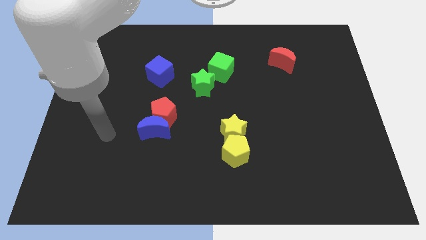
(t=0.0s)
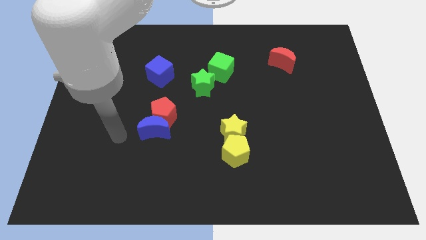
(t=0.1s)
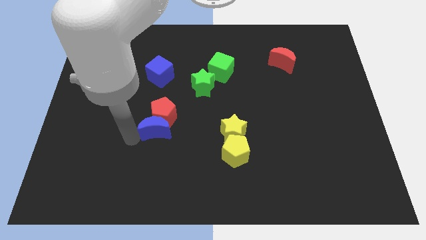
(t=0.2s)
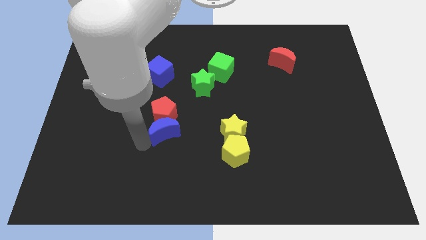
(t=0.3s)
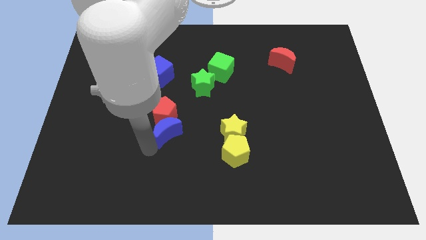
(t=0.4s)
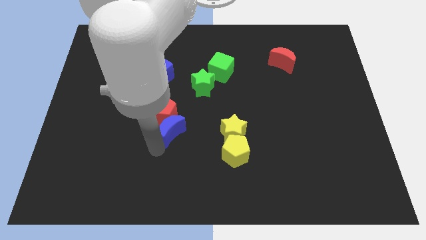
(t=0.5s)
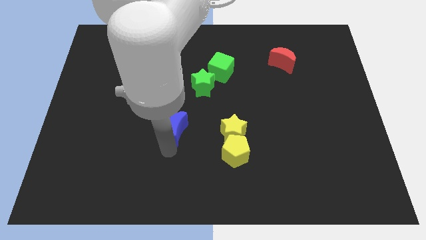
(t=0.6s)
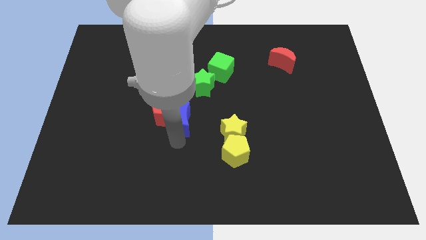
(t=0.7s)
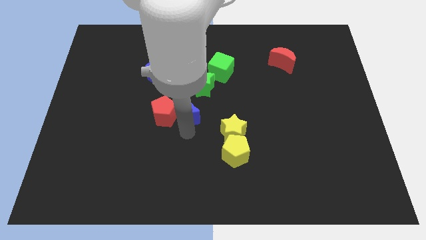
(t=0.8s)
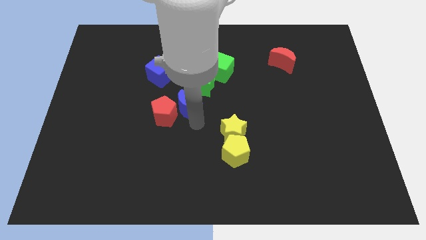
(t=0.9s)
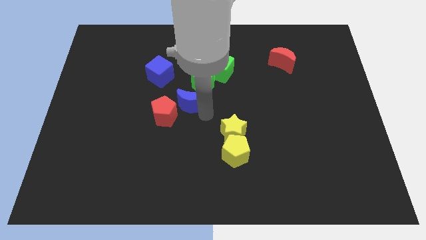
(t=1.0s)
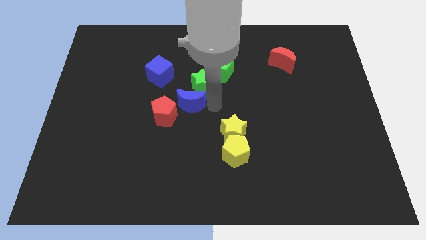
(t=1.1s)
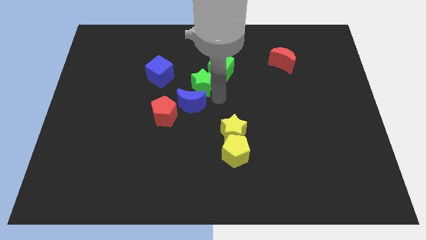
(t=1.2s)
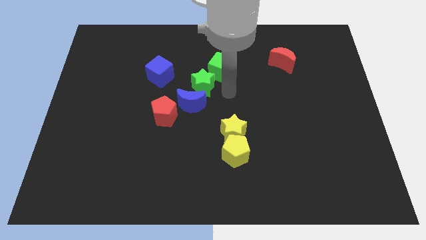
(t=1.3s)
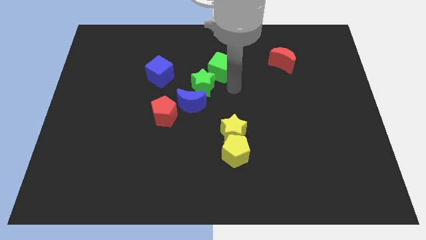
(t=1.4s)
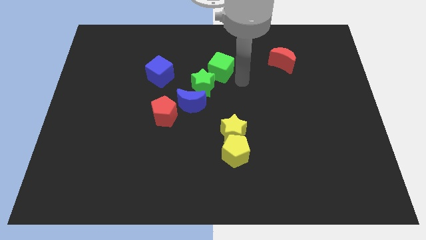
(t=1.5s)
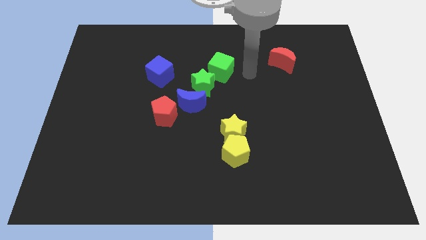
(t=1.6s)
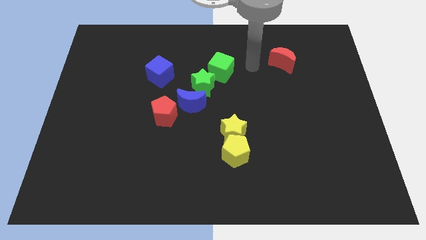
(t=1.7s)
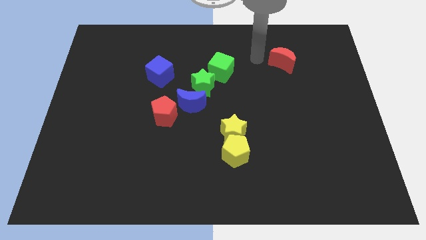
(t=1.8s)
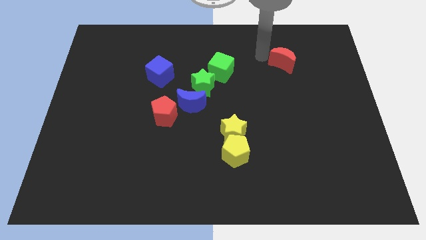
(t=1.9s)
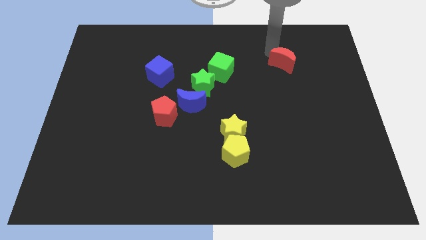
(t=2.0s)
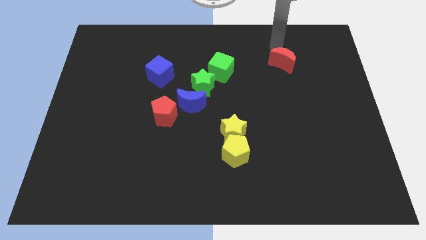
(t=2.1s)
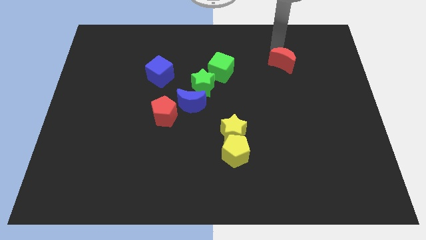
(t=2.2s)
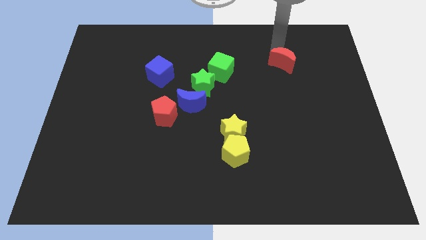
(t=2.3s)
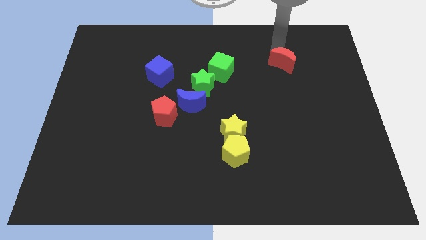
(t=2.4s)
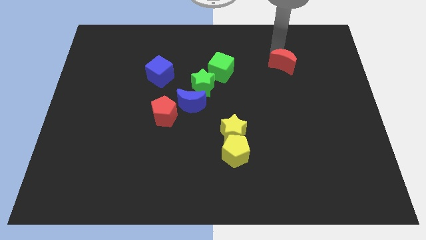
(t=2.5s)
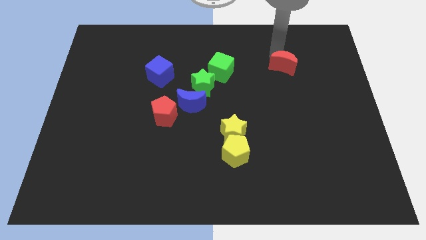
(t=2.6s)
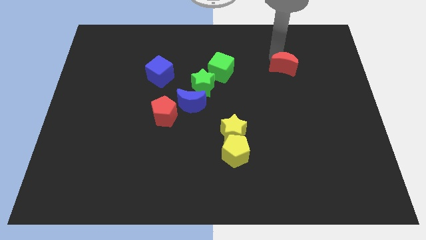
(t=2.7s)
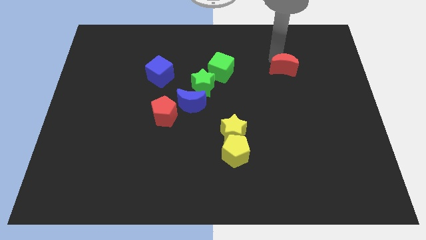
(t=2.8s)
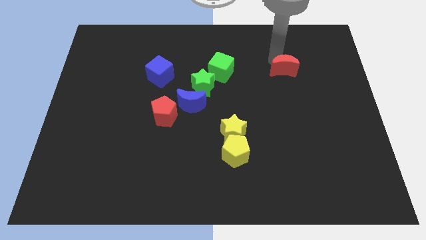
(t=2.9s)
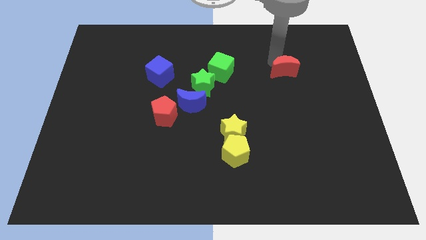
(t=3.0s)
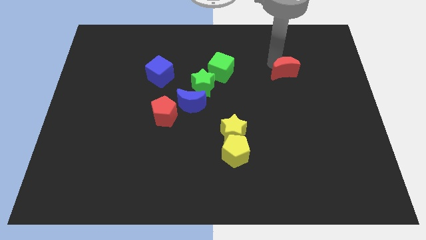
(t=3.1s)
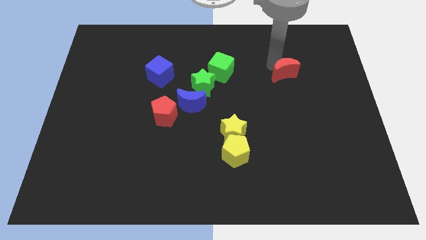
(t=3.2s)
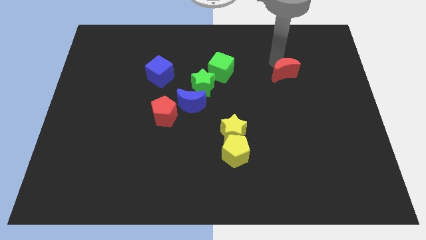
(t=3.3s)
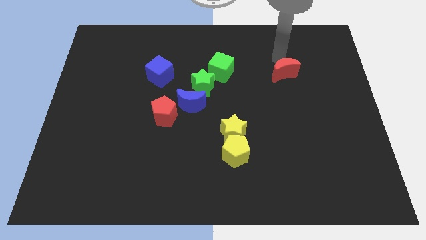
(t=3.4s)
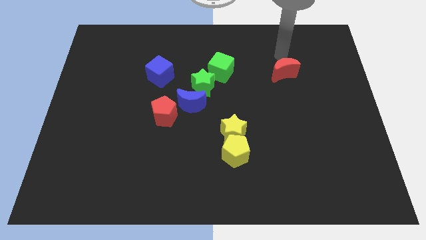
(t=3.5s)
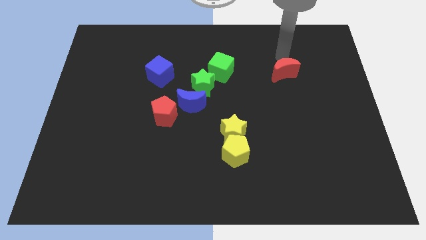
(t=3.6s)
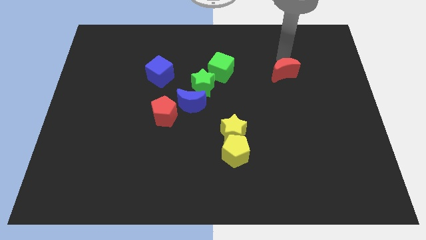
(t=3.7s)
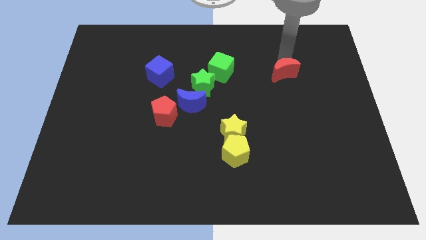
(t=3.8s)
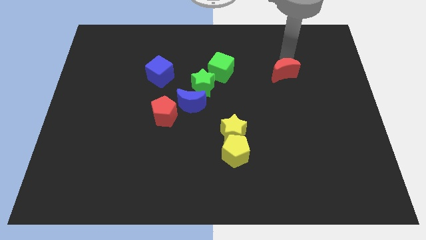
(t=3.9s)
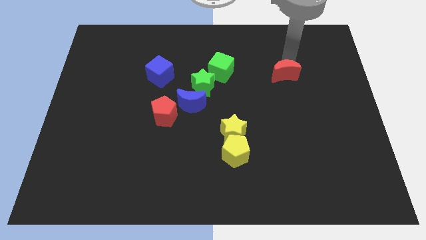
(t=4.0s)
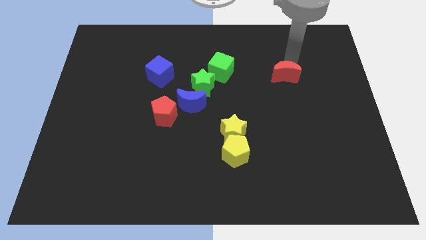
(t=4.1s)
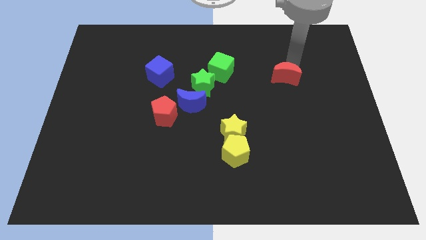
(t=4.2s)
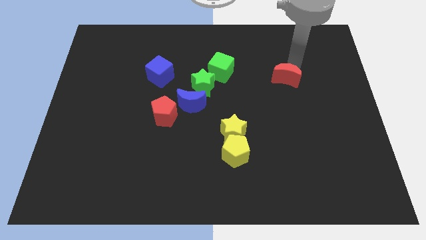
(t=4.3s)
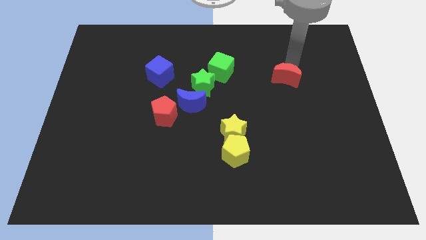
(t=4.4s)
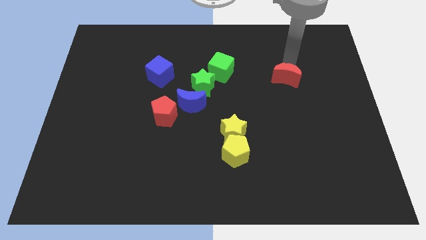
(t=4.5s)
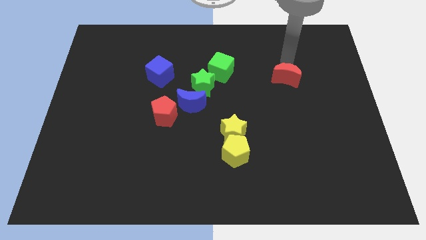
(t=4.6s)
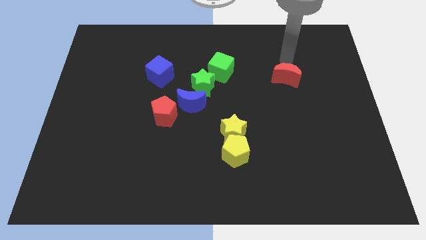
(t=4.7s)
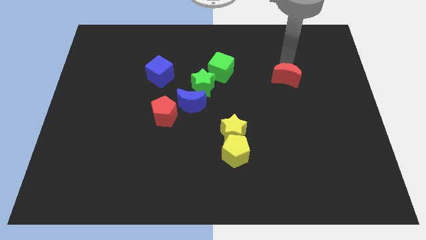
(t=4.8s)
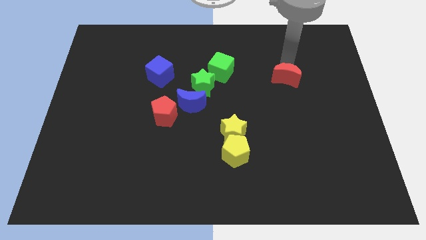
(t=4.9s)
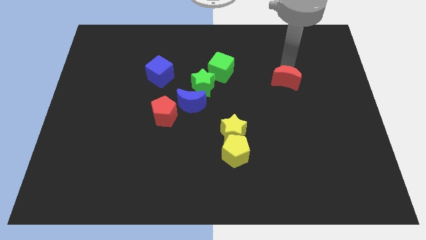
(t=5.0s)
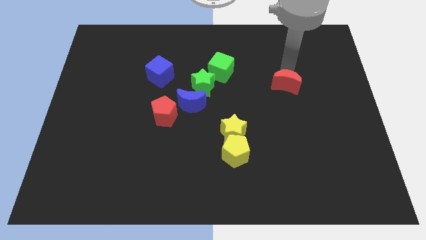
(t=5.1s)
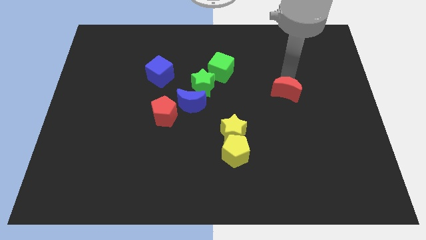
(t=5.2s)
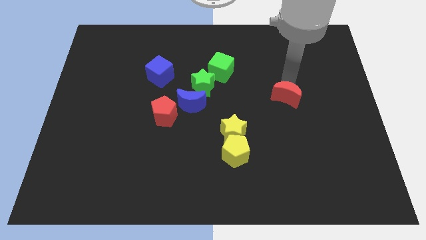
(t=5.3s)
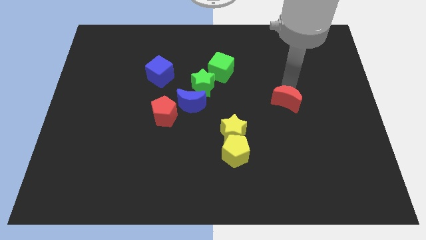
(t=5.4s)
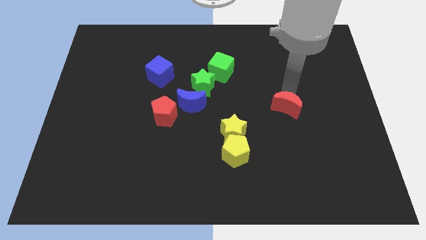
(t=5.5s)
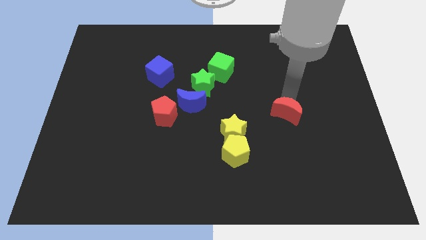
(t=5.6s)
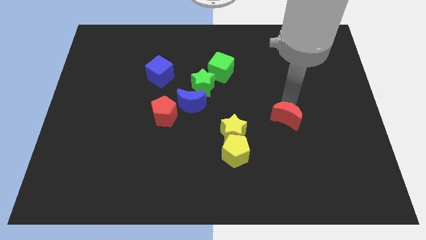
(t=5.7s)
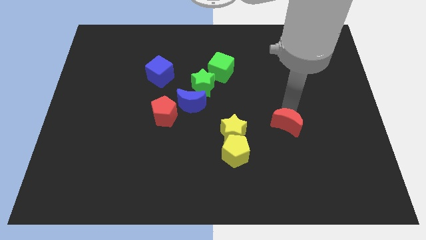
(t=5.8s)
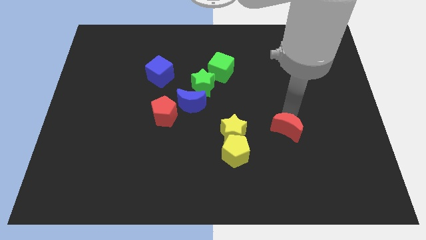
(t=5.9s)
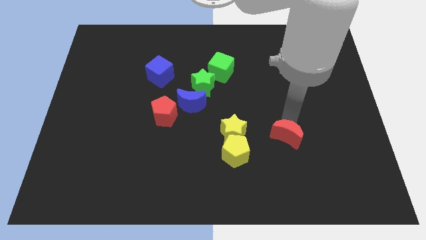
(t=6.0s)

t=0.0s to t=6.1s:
put the red moon to the right side of the yellow pentagon

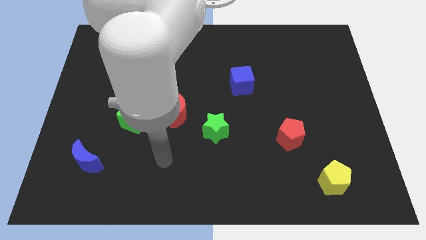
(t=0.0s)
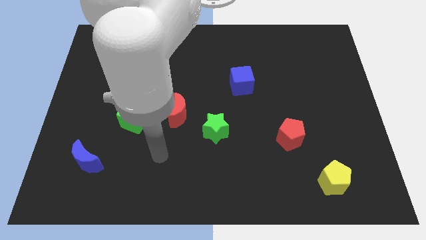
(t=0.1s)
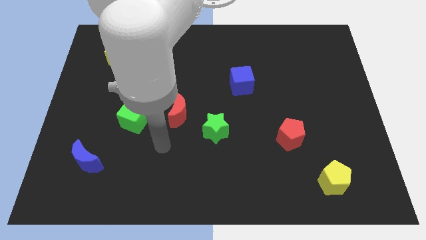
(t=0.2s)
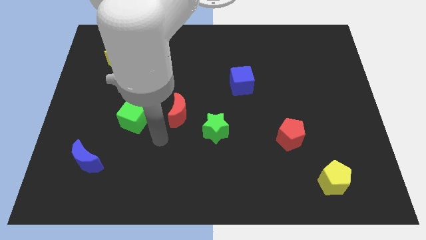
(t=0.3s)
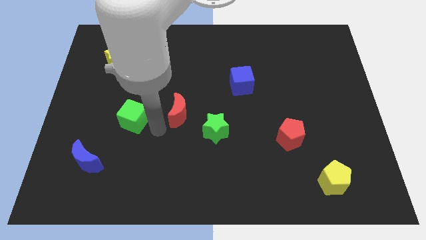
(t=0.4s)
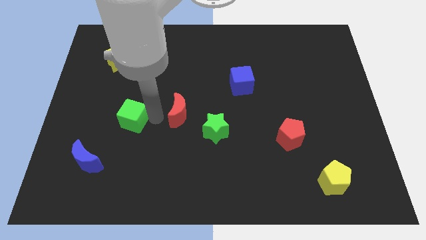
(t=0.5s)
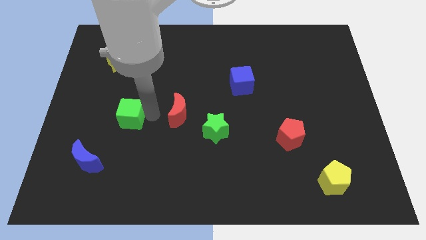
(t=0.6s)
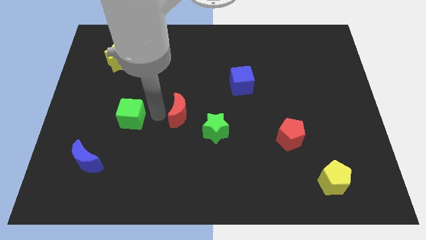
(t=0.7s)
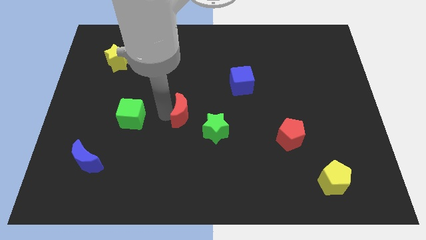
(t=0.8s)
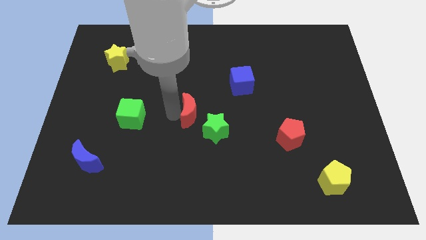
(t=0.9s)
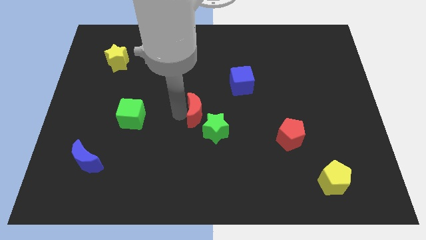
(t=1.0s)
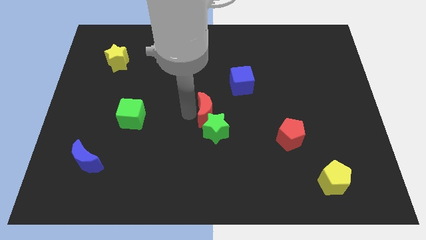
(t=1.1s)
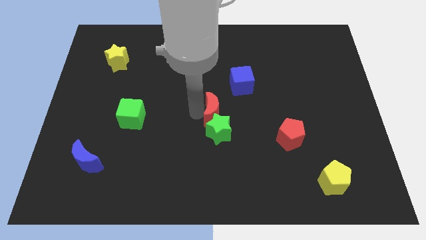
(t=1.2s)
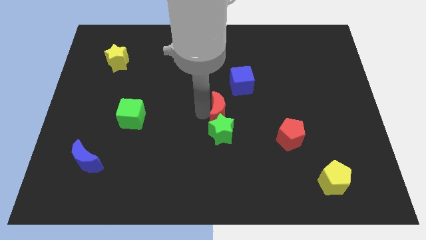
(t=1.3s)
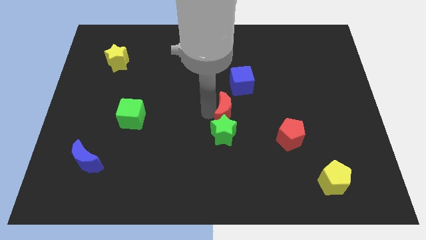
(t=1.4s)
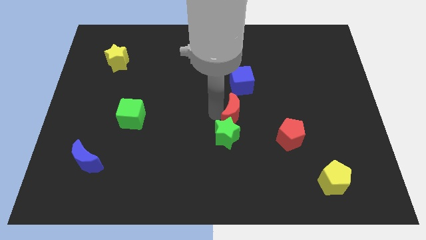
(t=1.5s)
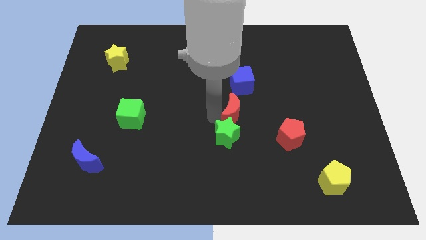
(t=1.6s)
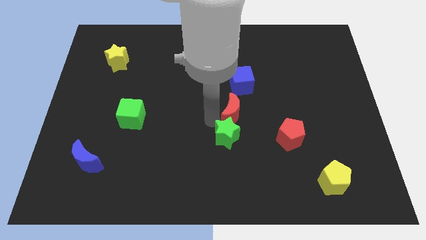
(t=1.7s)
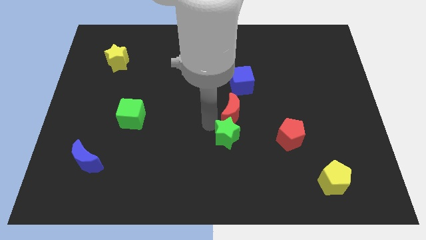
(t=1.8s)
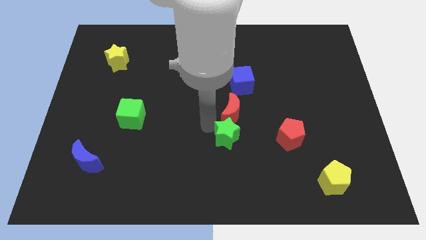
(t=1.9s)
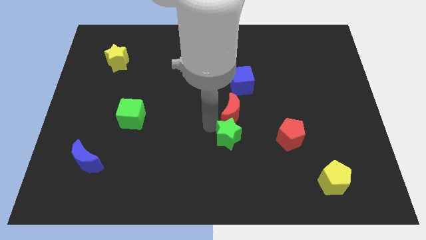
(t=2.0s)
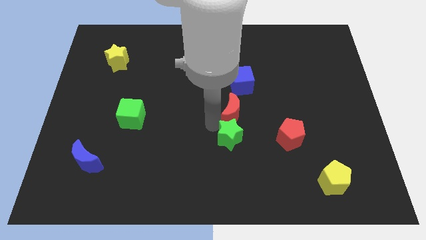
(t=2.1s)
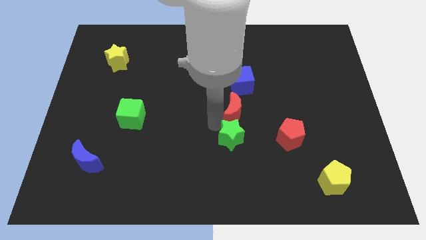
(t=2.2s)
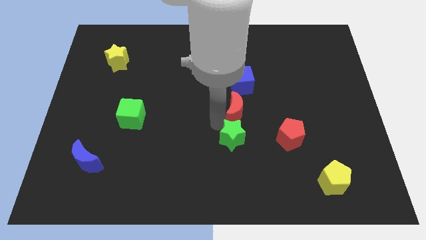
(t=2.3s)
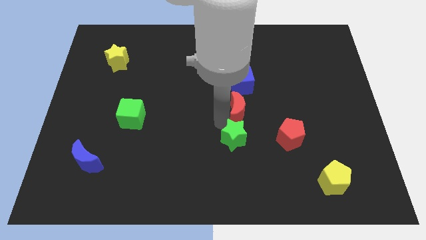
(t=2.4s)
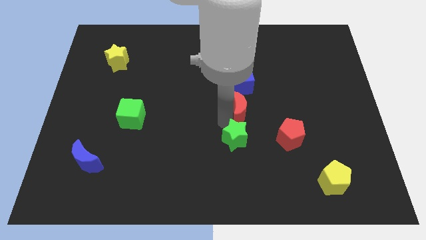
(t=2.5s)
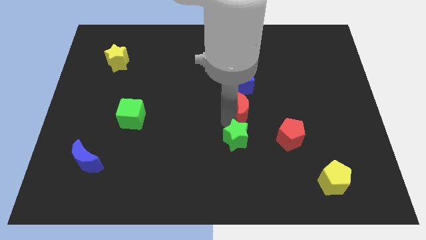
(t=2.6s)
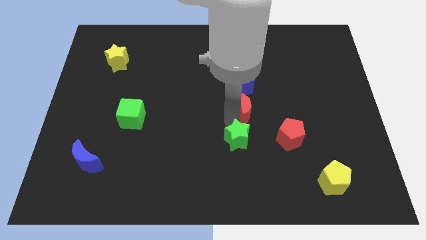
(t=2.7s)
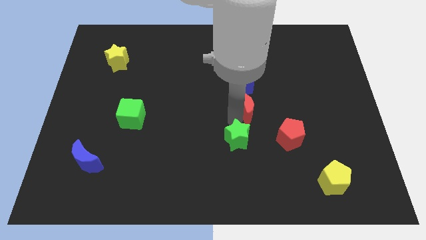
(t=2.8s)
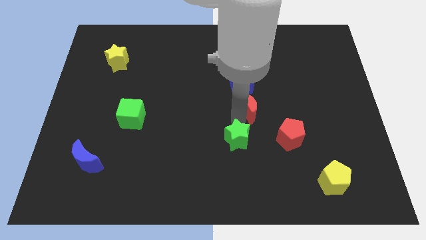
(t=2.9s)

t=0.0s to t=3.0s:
push the red moon to the bottom right side of the blue cube
